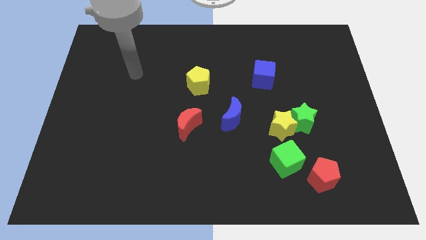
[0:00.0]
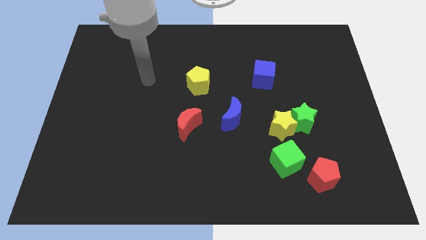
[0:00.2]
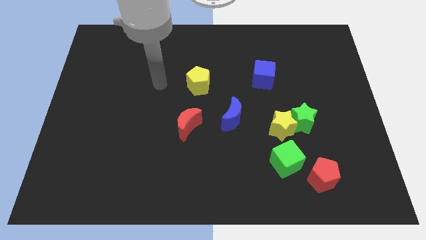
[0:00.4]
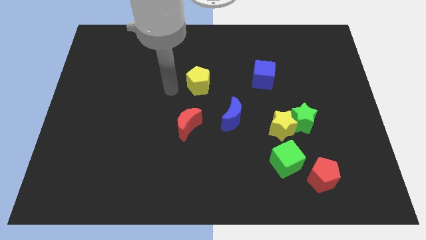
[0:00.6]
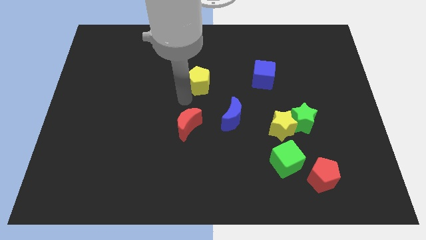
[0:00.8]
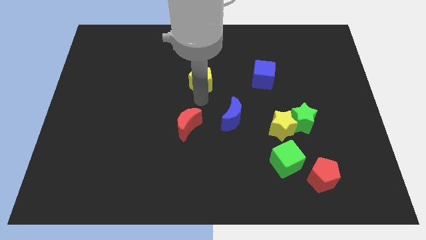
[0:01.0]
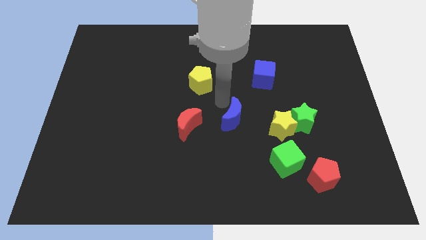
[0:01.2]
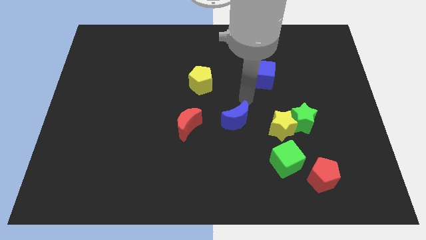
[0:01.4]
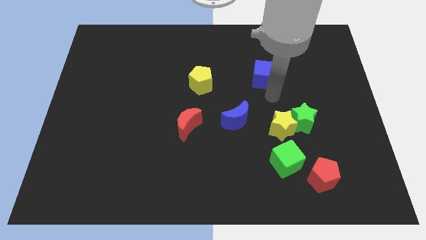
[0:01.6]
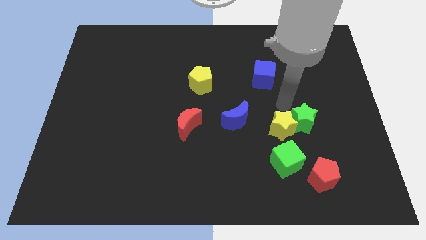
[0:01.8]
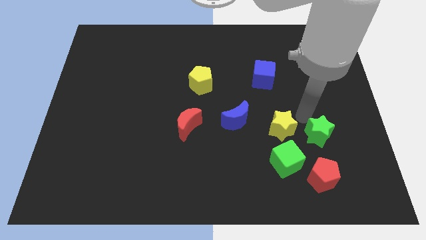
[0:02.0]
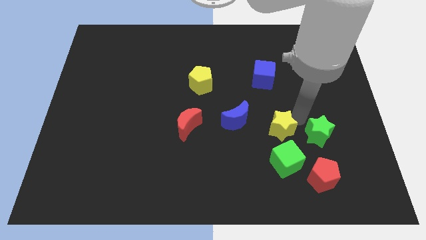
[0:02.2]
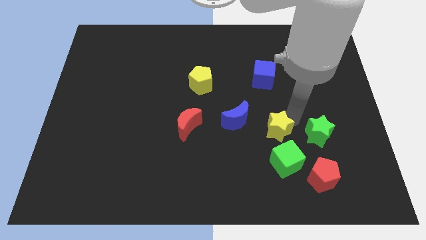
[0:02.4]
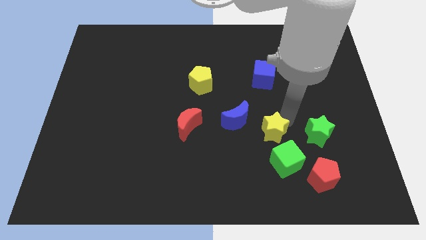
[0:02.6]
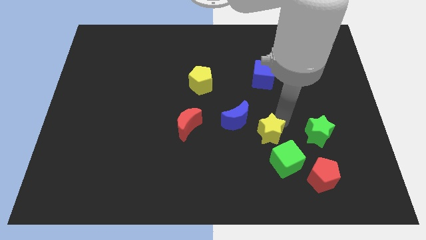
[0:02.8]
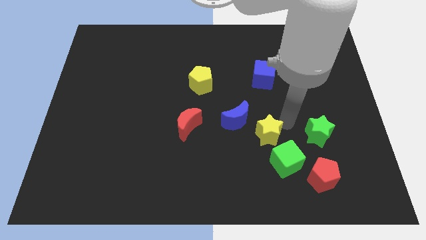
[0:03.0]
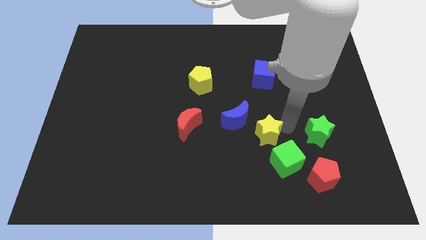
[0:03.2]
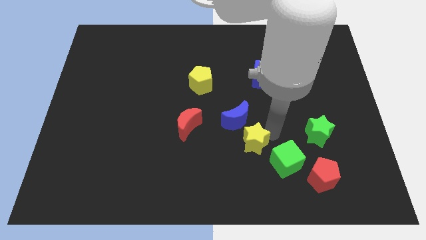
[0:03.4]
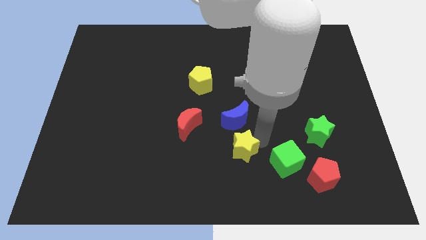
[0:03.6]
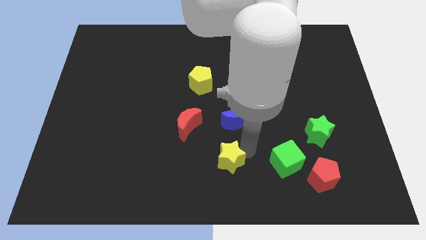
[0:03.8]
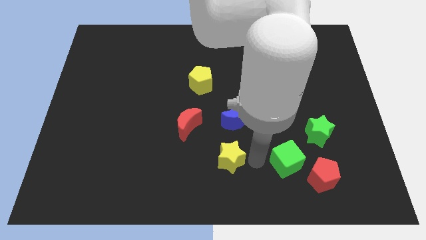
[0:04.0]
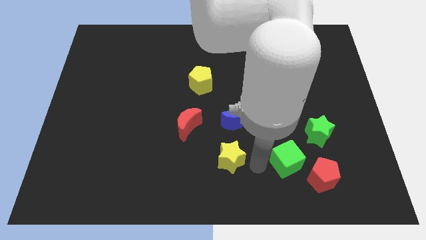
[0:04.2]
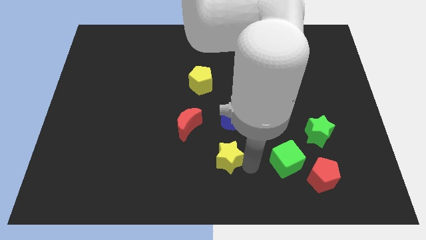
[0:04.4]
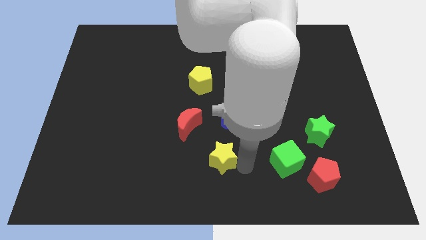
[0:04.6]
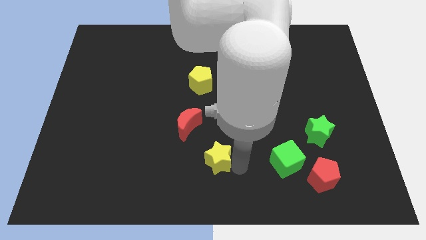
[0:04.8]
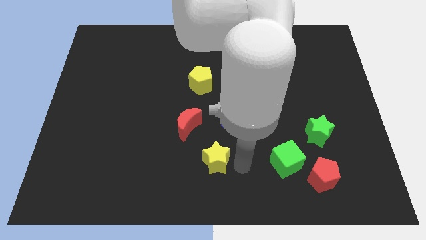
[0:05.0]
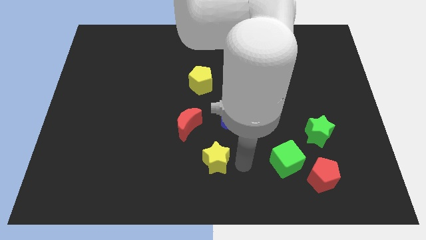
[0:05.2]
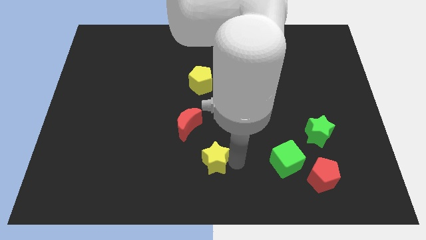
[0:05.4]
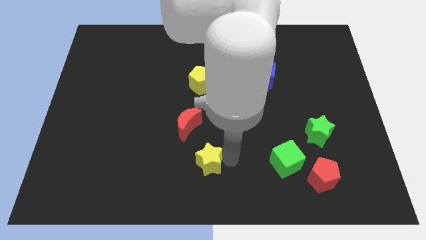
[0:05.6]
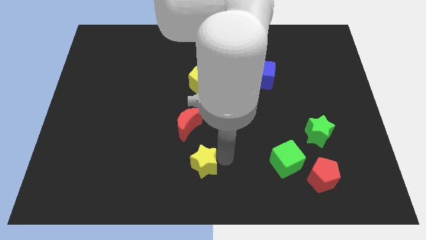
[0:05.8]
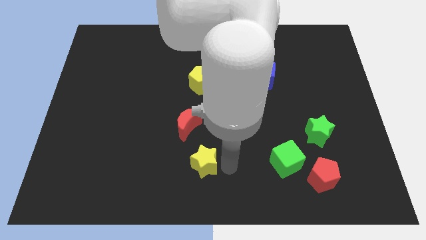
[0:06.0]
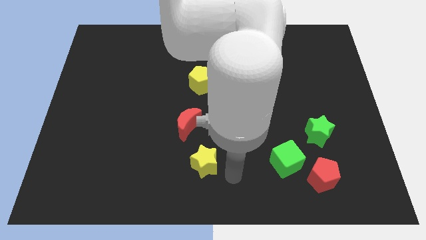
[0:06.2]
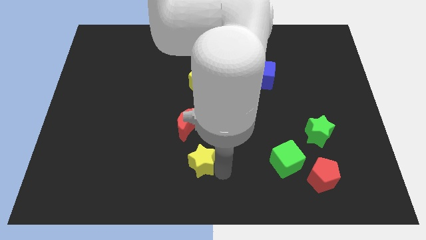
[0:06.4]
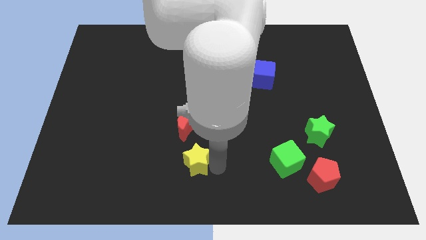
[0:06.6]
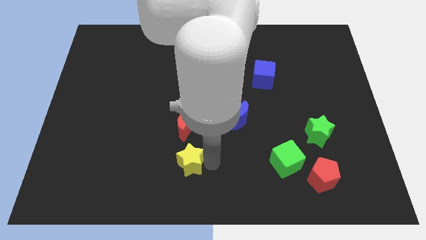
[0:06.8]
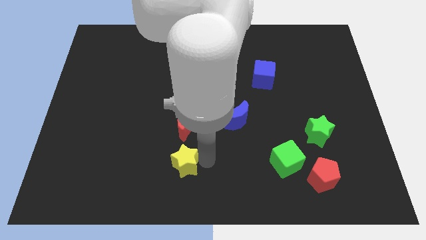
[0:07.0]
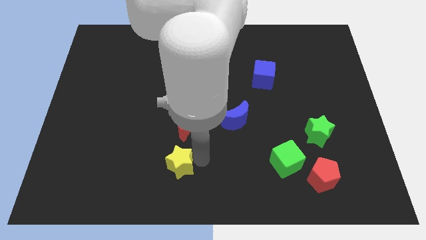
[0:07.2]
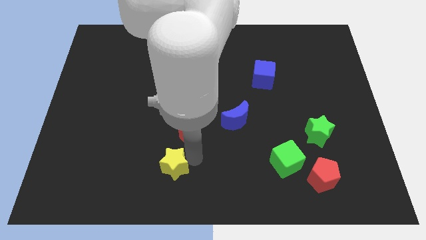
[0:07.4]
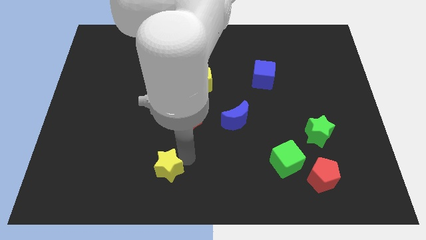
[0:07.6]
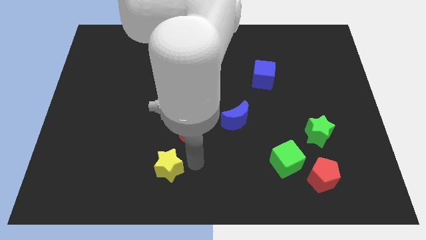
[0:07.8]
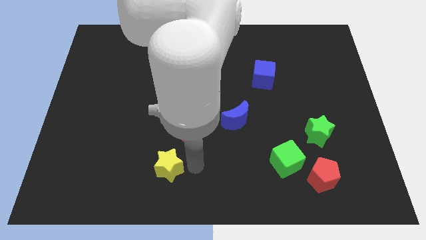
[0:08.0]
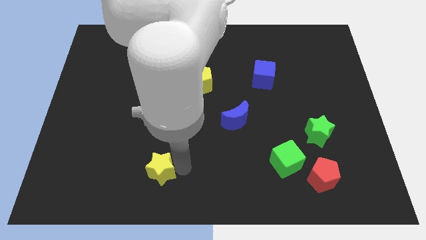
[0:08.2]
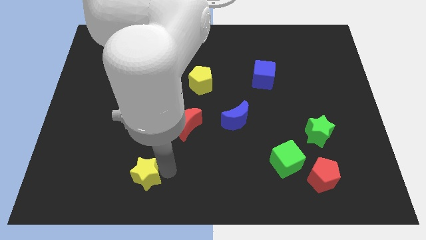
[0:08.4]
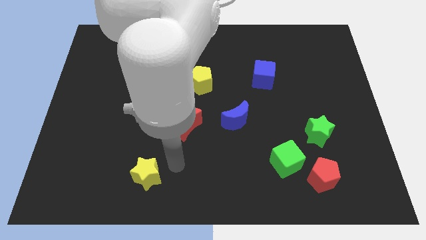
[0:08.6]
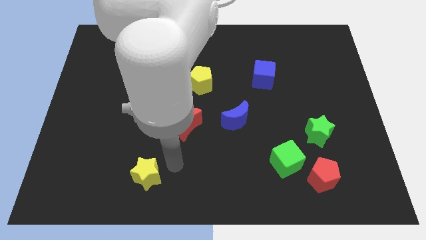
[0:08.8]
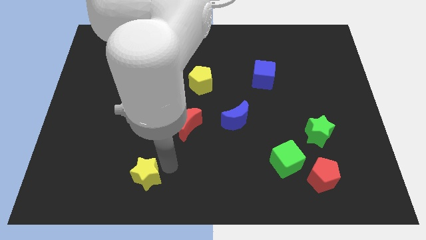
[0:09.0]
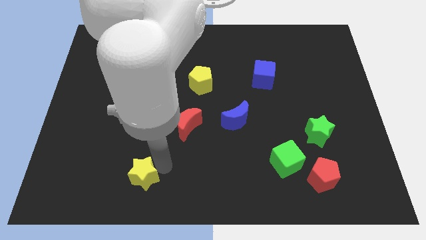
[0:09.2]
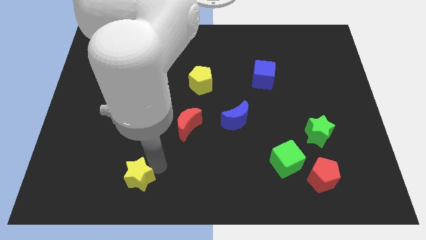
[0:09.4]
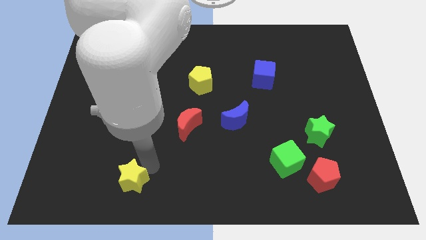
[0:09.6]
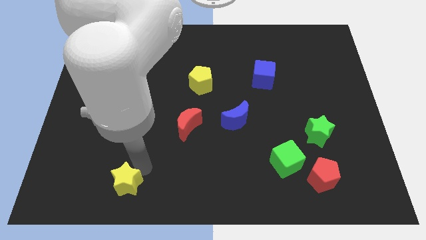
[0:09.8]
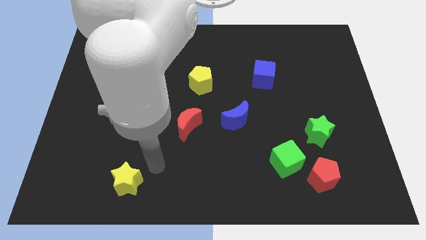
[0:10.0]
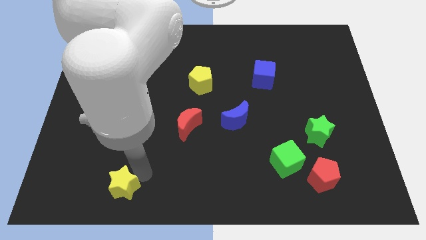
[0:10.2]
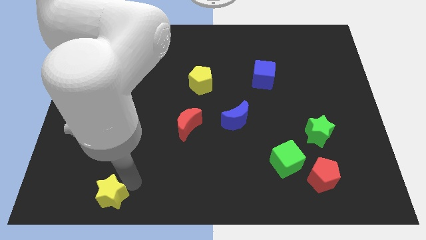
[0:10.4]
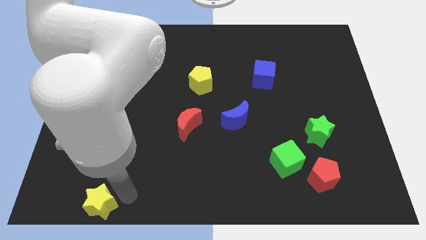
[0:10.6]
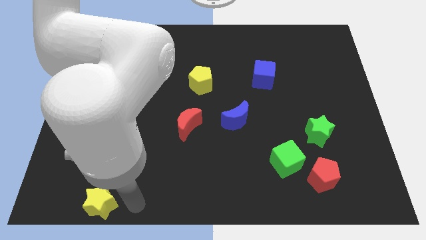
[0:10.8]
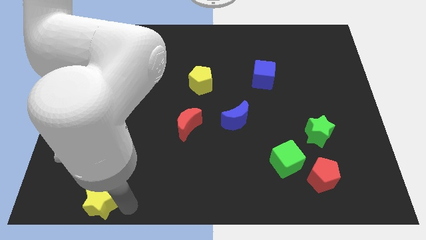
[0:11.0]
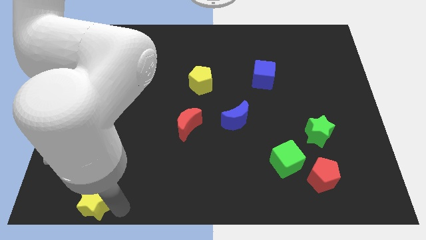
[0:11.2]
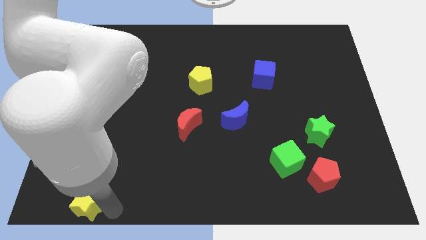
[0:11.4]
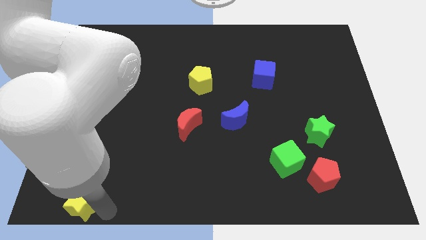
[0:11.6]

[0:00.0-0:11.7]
slide the yellow star to the bottom left corner

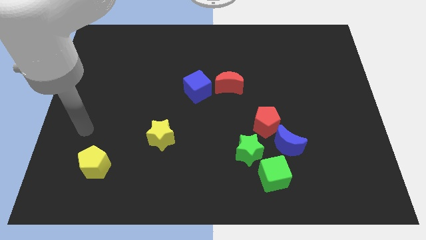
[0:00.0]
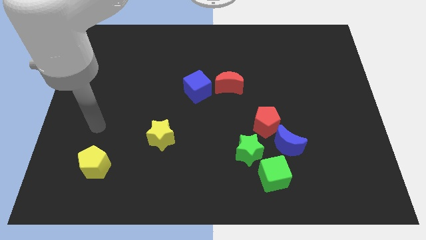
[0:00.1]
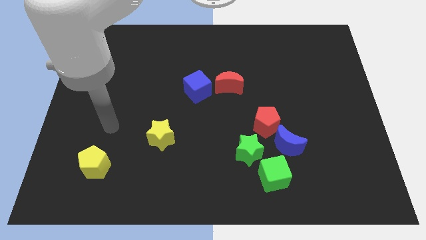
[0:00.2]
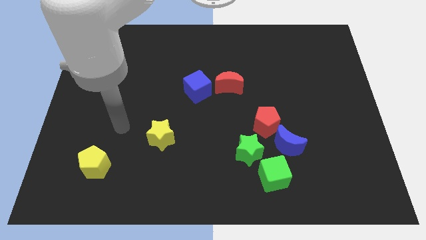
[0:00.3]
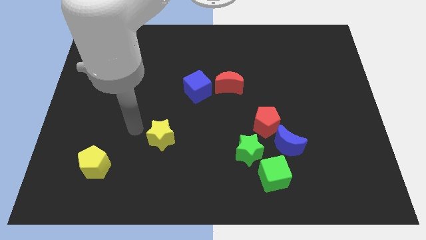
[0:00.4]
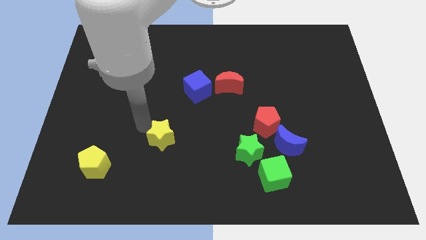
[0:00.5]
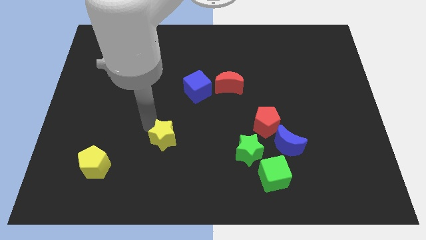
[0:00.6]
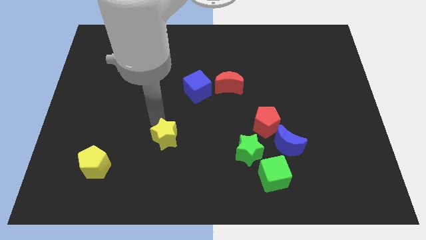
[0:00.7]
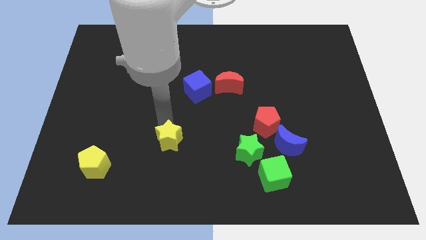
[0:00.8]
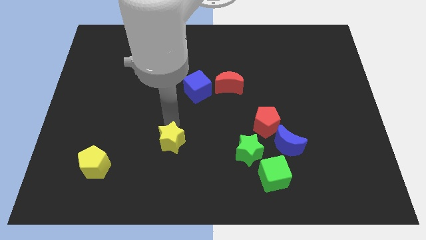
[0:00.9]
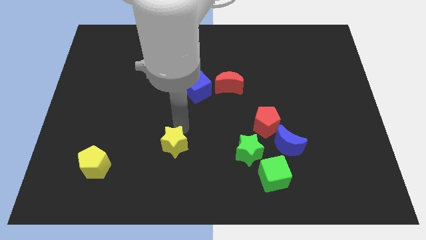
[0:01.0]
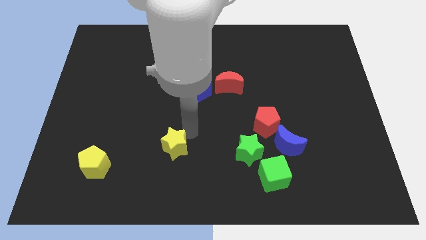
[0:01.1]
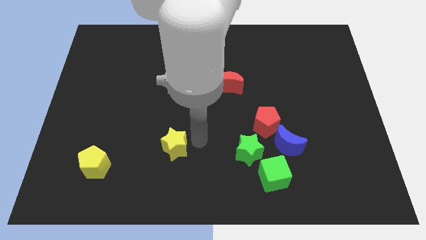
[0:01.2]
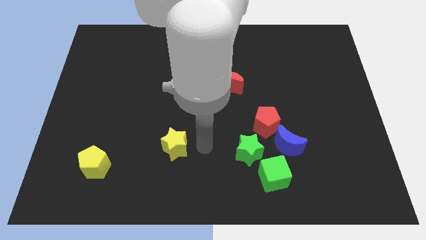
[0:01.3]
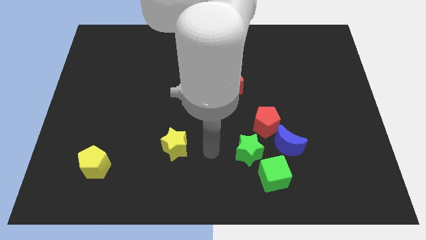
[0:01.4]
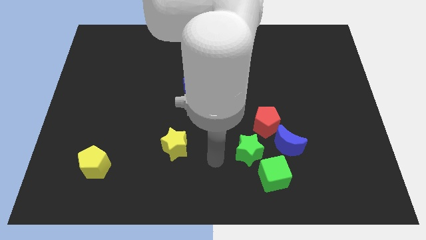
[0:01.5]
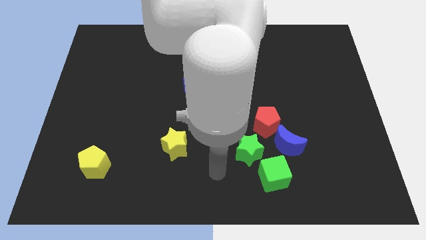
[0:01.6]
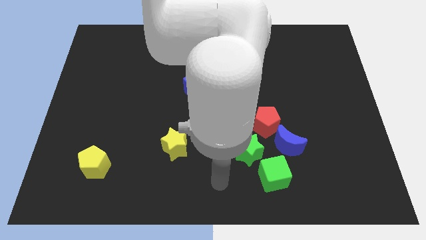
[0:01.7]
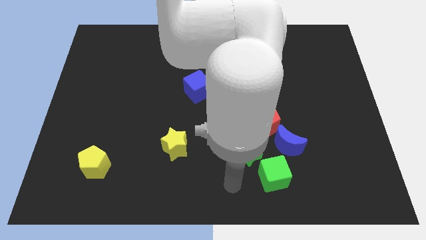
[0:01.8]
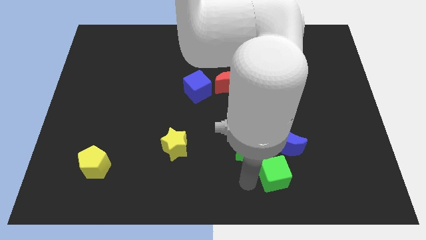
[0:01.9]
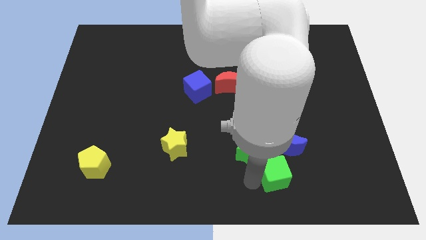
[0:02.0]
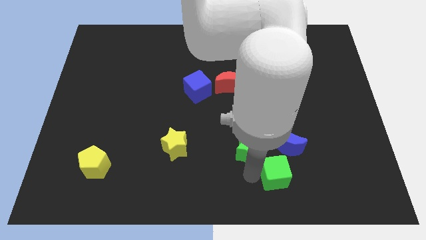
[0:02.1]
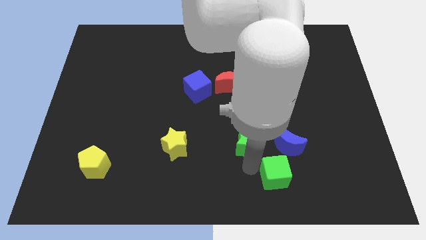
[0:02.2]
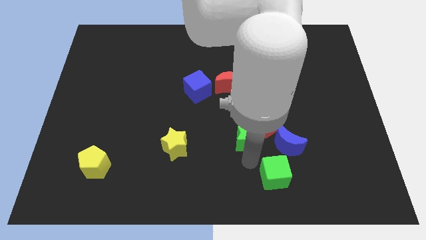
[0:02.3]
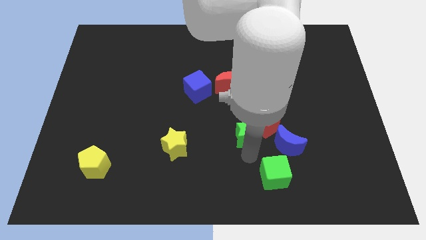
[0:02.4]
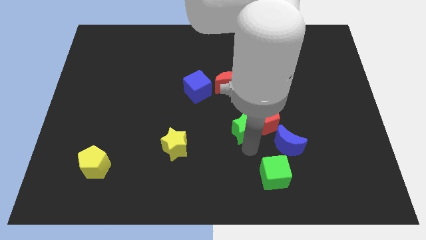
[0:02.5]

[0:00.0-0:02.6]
push the green star to the center of the board
